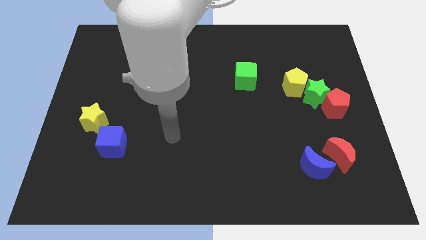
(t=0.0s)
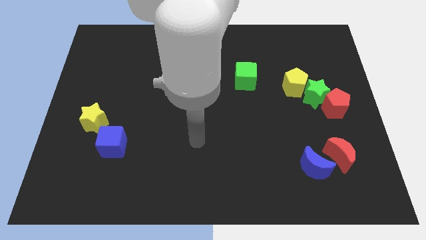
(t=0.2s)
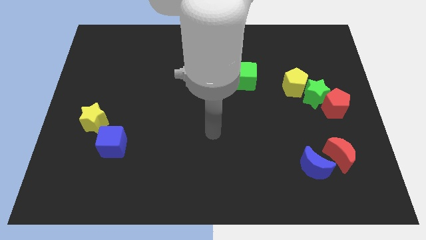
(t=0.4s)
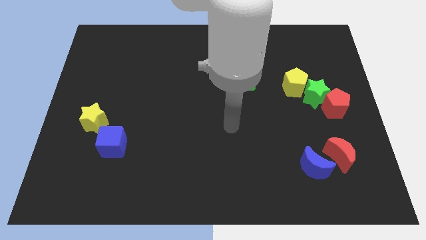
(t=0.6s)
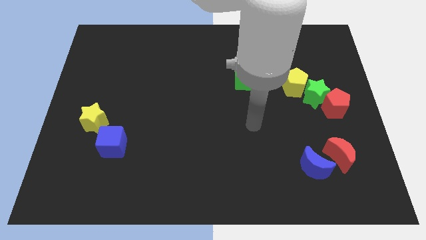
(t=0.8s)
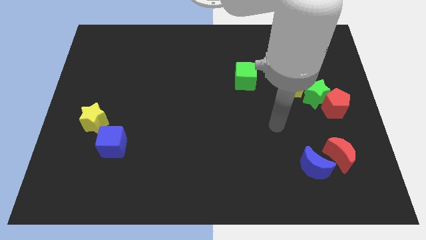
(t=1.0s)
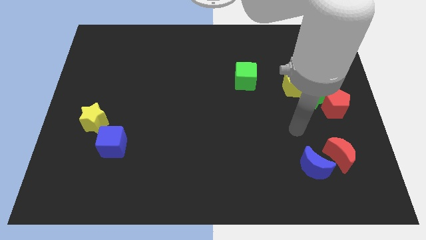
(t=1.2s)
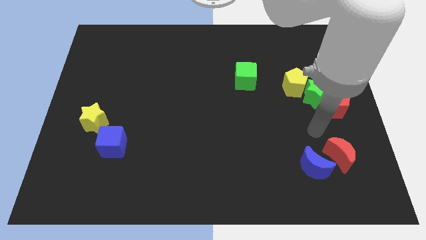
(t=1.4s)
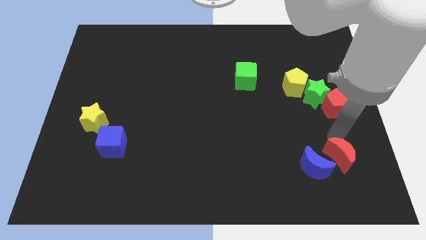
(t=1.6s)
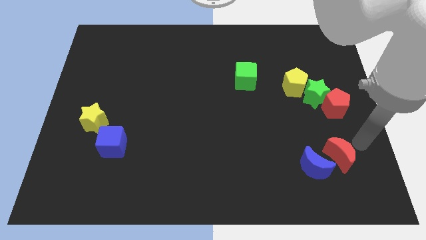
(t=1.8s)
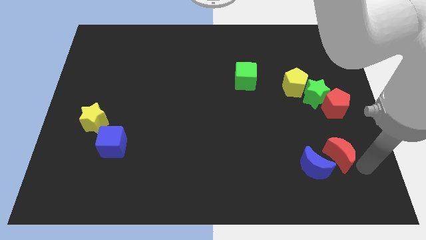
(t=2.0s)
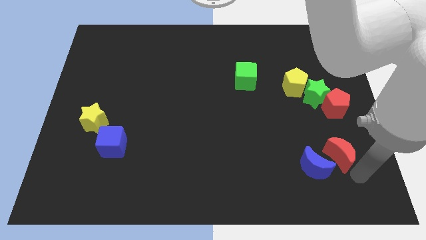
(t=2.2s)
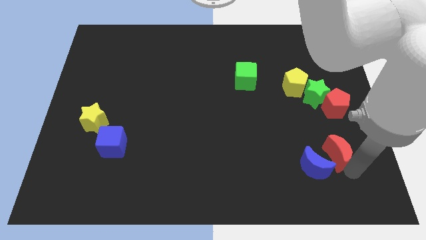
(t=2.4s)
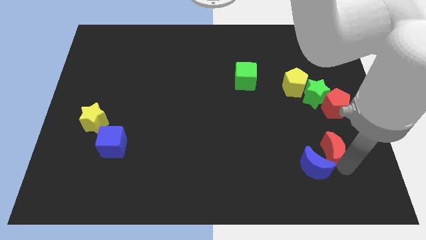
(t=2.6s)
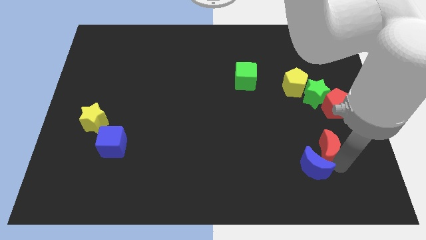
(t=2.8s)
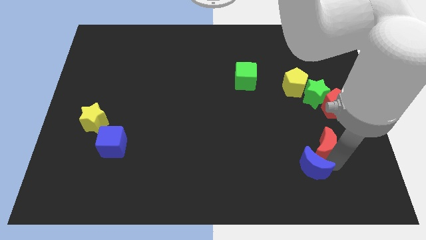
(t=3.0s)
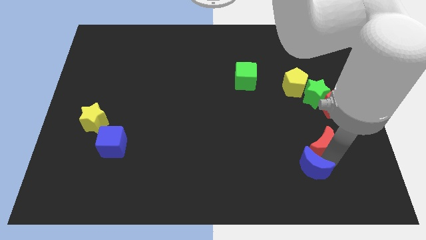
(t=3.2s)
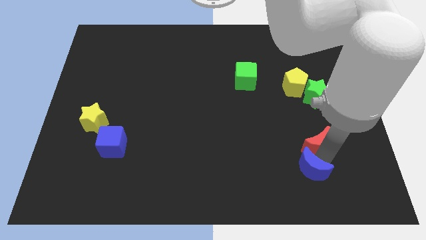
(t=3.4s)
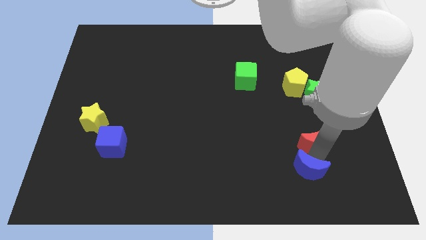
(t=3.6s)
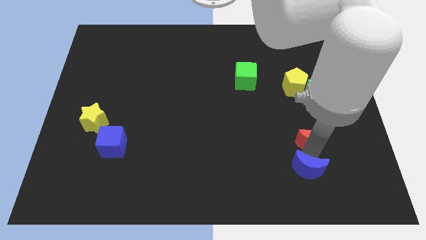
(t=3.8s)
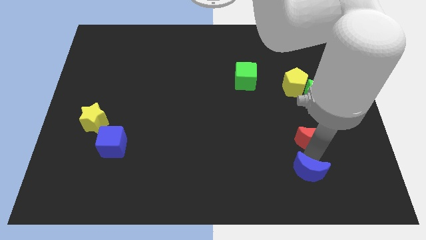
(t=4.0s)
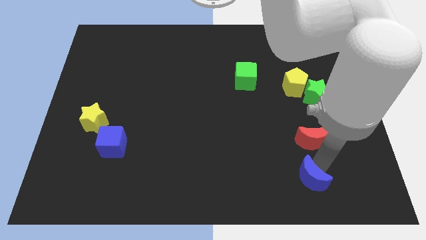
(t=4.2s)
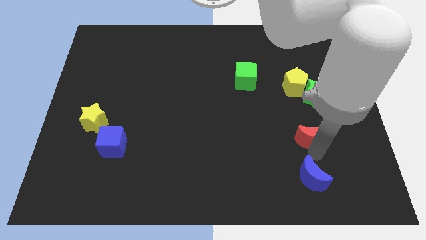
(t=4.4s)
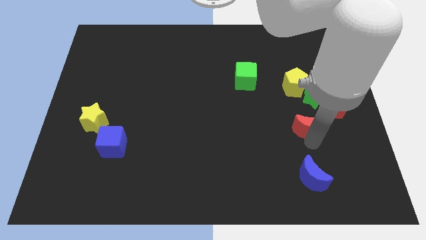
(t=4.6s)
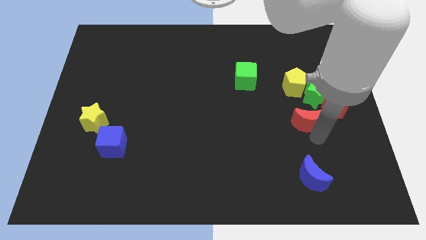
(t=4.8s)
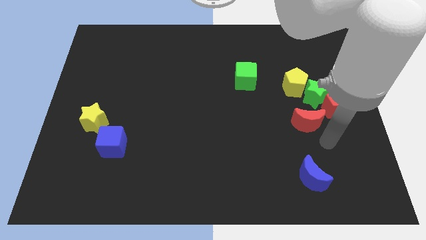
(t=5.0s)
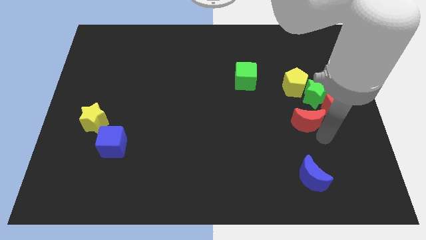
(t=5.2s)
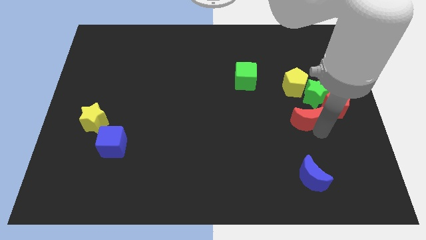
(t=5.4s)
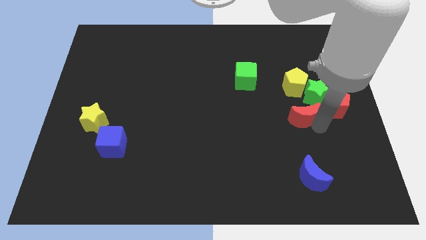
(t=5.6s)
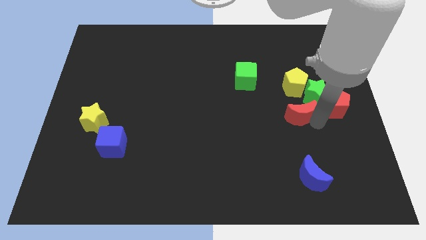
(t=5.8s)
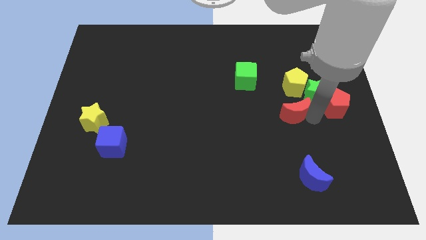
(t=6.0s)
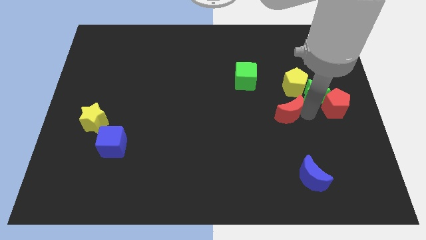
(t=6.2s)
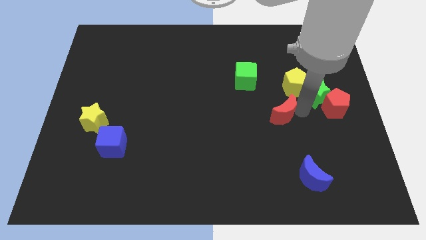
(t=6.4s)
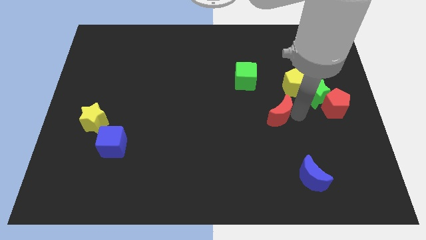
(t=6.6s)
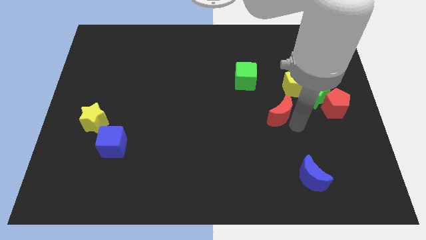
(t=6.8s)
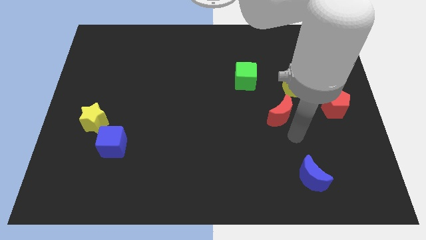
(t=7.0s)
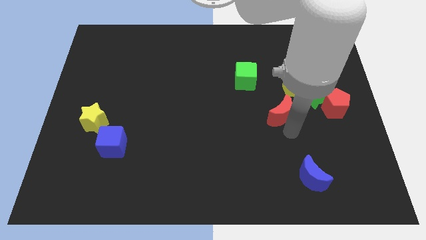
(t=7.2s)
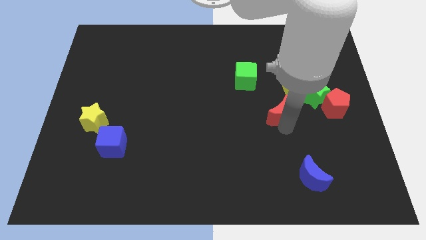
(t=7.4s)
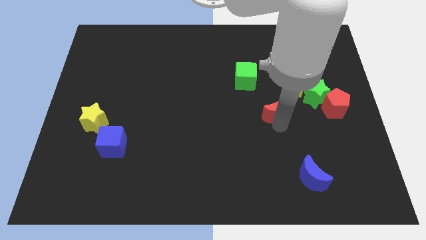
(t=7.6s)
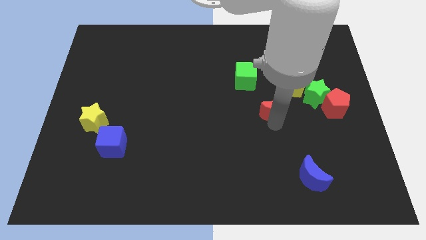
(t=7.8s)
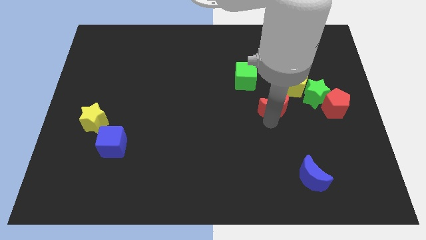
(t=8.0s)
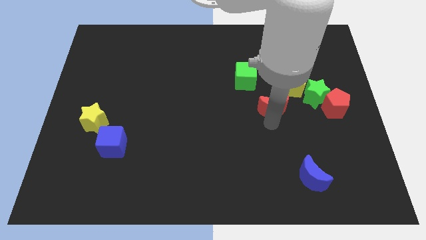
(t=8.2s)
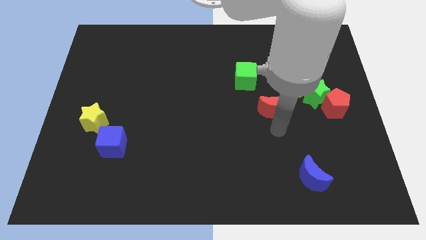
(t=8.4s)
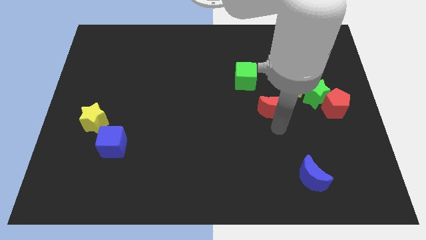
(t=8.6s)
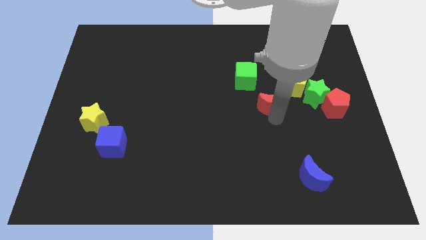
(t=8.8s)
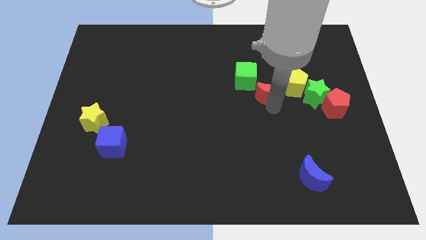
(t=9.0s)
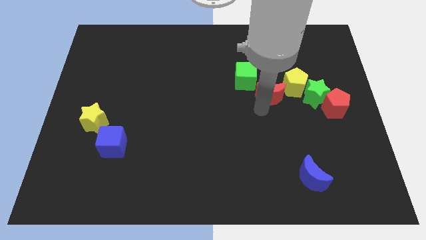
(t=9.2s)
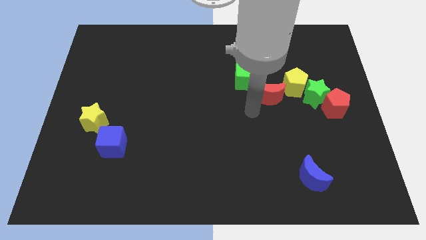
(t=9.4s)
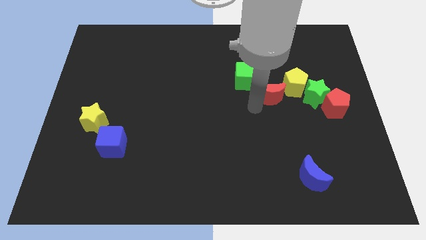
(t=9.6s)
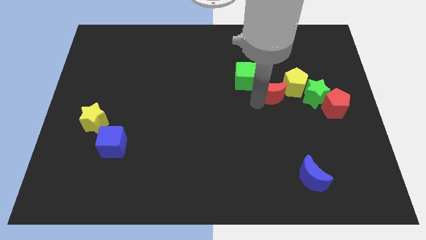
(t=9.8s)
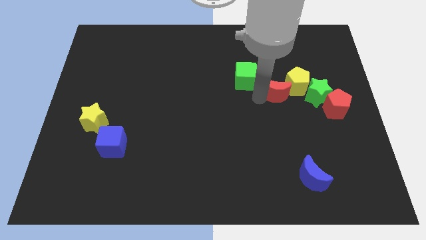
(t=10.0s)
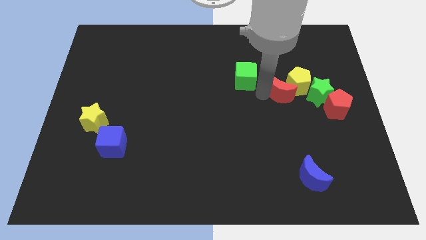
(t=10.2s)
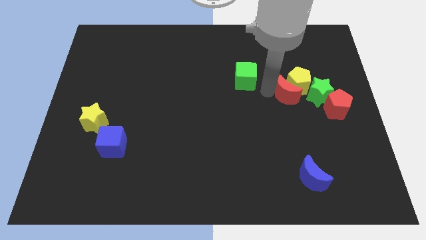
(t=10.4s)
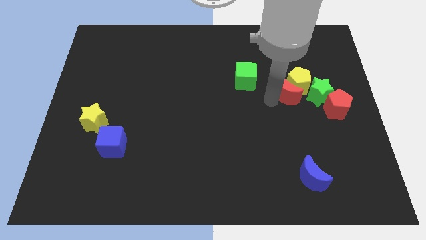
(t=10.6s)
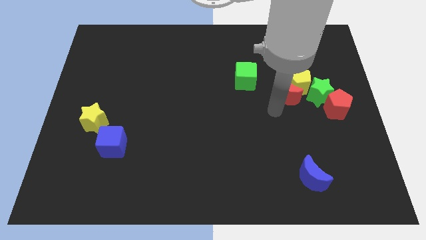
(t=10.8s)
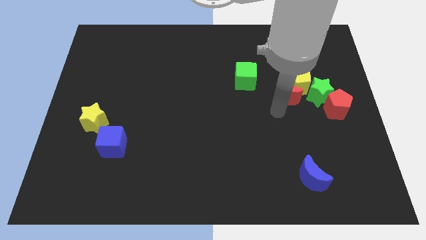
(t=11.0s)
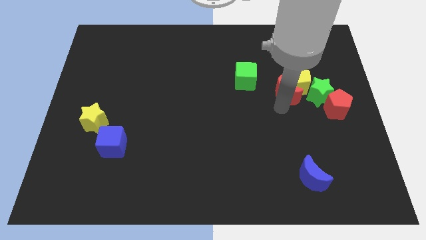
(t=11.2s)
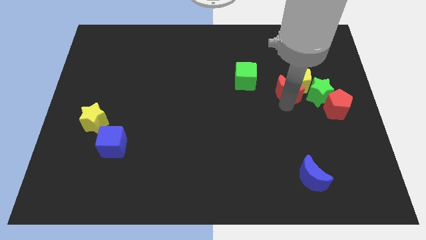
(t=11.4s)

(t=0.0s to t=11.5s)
slide the red moon diagonally up and to the left of the green star
